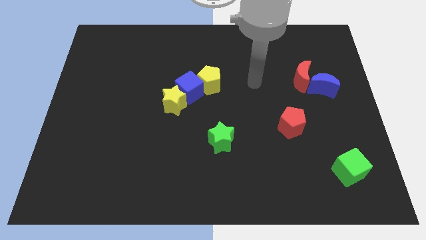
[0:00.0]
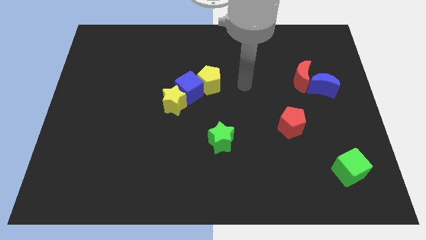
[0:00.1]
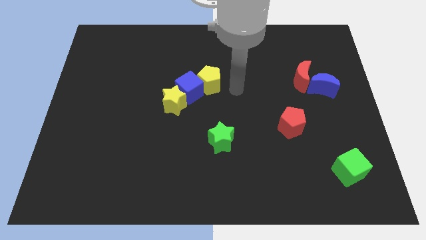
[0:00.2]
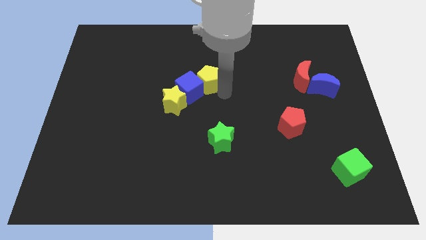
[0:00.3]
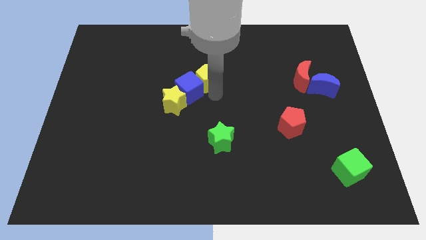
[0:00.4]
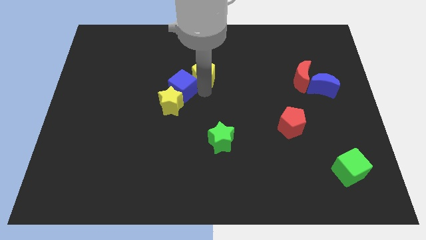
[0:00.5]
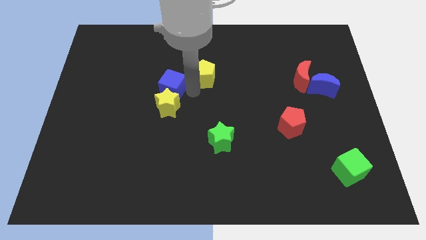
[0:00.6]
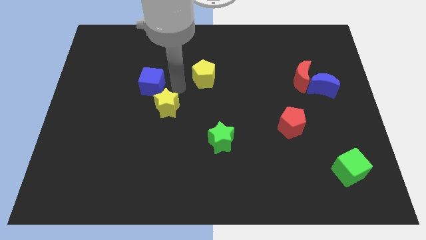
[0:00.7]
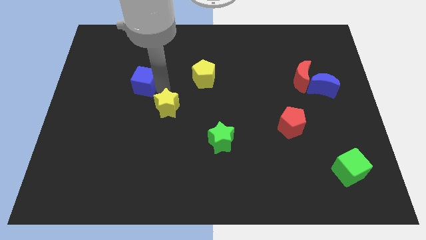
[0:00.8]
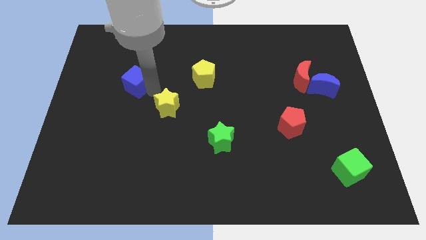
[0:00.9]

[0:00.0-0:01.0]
pull the yellow star apart from the blue cube

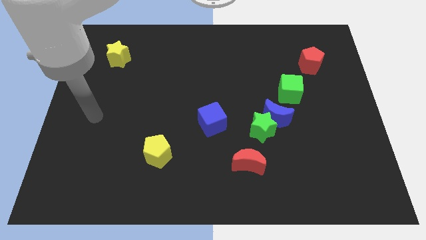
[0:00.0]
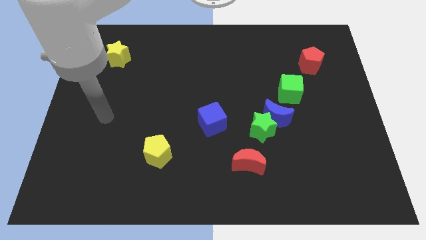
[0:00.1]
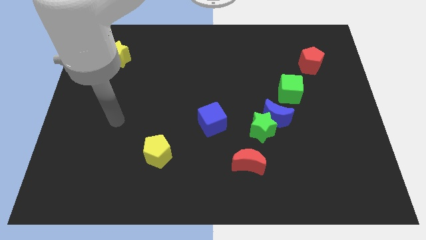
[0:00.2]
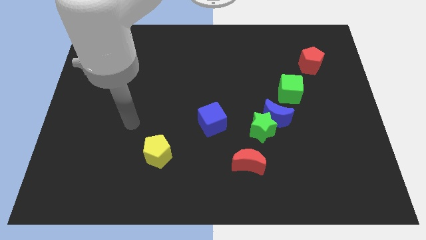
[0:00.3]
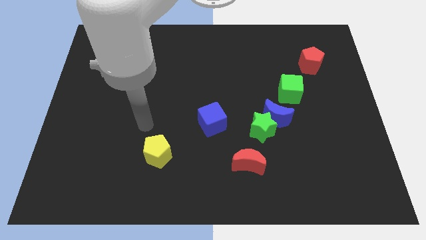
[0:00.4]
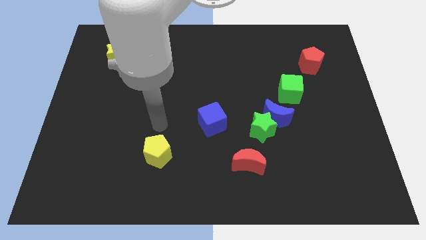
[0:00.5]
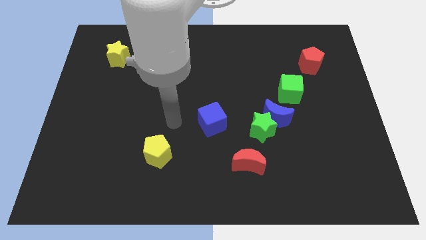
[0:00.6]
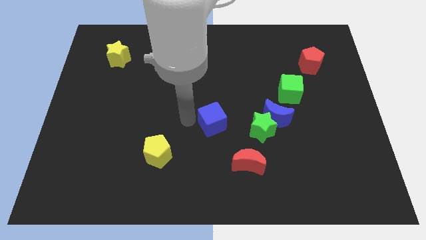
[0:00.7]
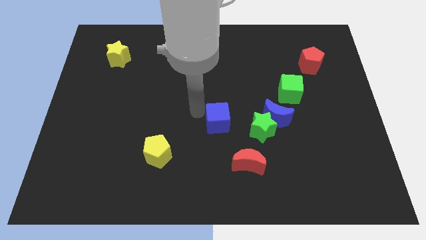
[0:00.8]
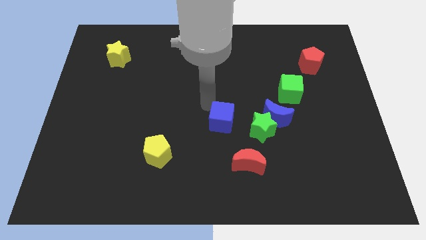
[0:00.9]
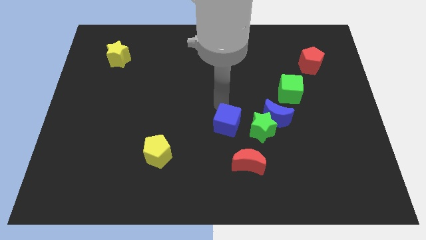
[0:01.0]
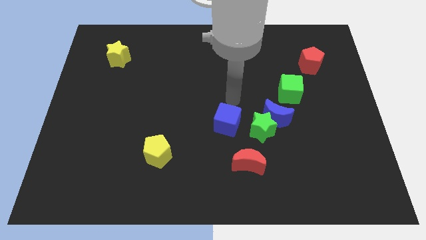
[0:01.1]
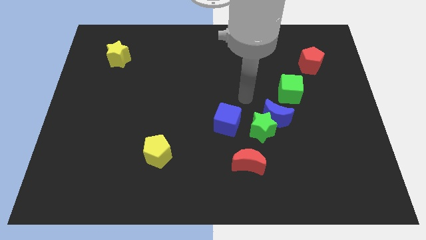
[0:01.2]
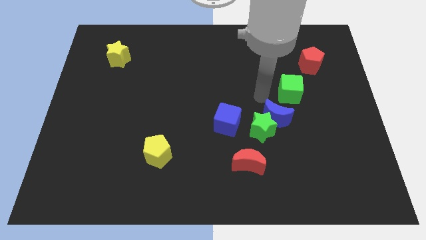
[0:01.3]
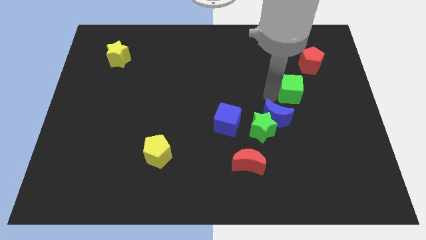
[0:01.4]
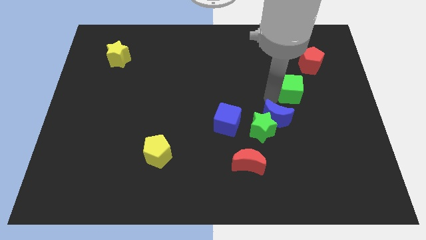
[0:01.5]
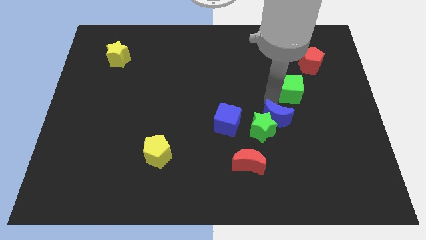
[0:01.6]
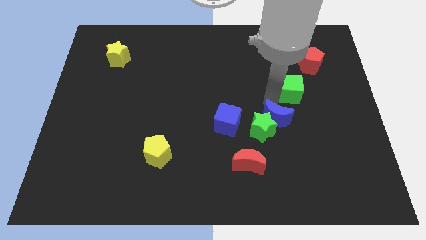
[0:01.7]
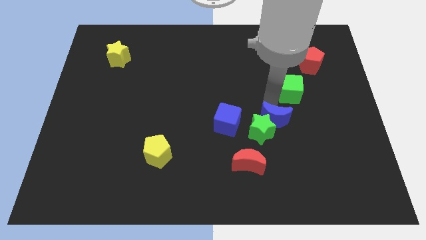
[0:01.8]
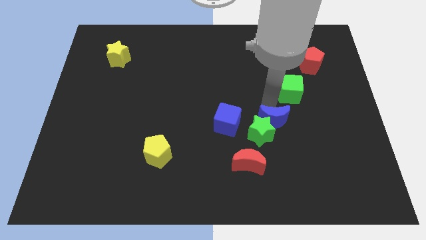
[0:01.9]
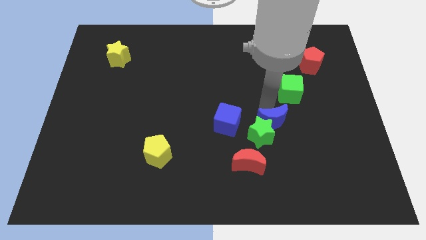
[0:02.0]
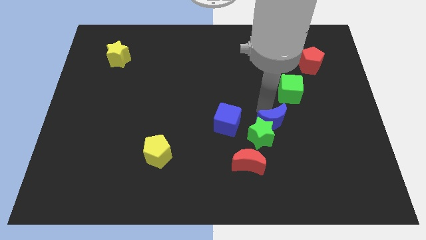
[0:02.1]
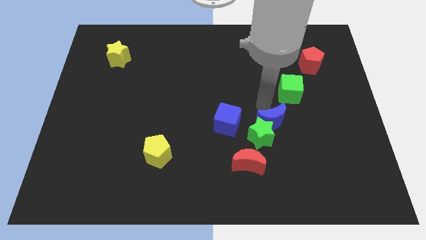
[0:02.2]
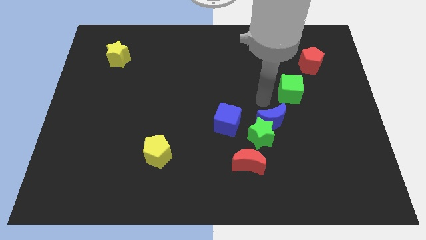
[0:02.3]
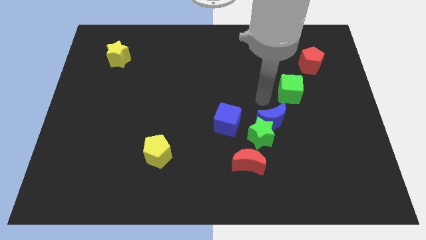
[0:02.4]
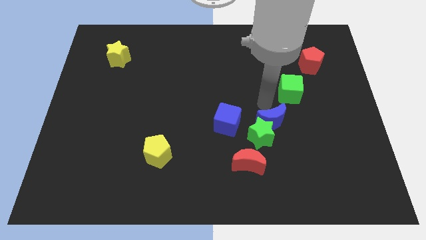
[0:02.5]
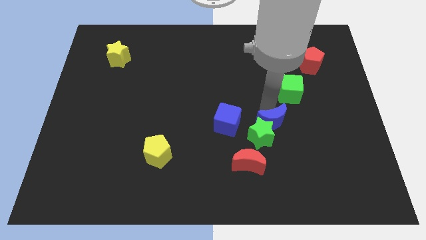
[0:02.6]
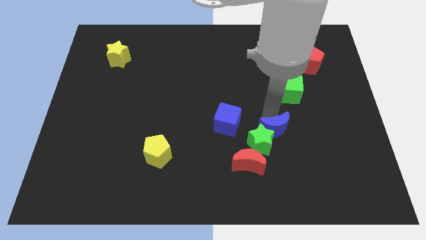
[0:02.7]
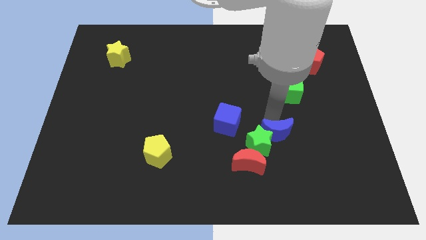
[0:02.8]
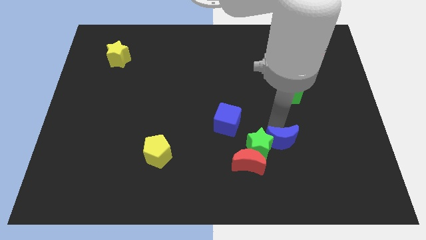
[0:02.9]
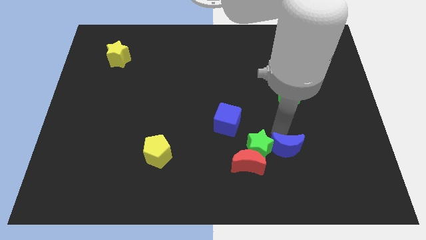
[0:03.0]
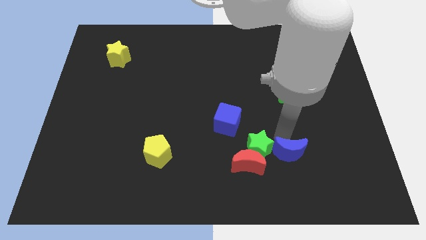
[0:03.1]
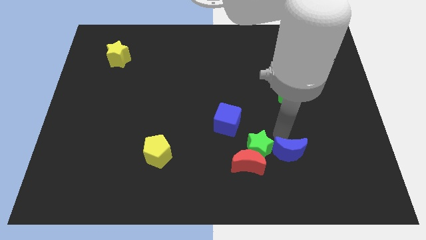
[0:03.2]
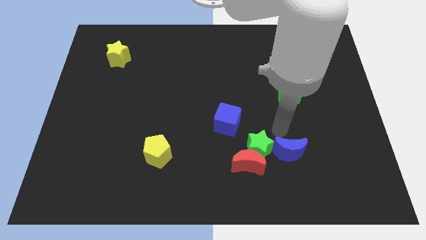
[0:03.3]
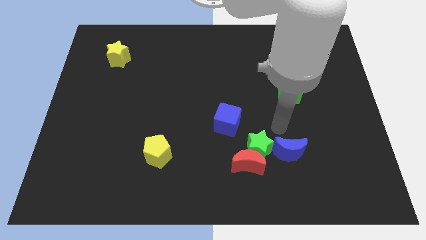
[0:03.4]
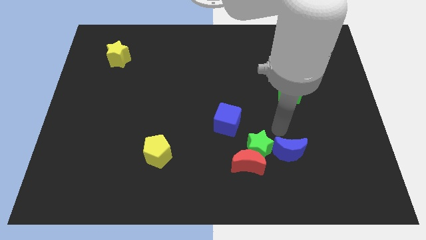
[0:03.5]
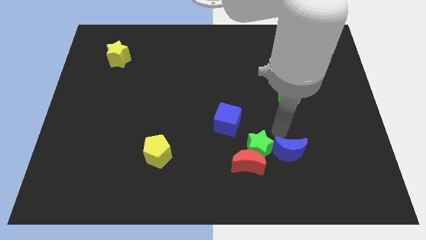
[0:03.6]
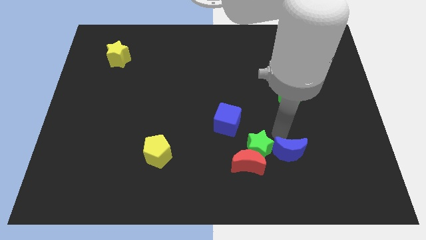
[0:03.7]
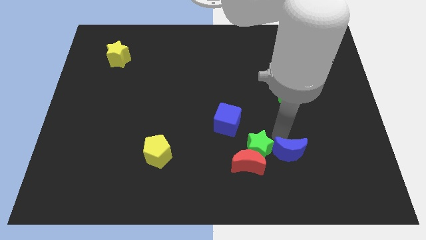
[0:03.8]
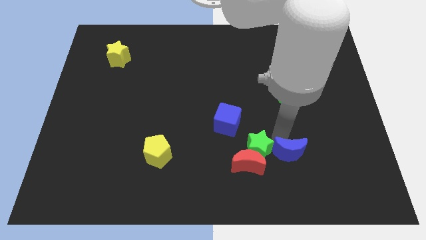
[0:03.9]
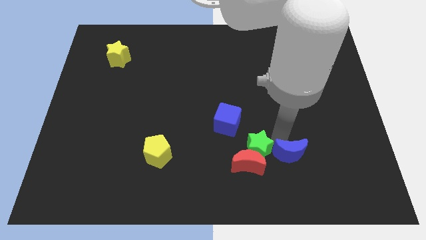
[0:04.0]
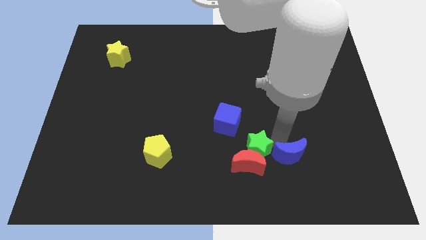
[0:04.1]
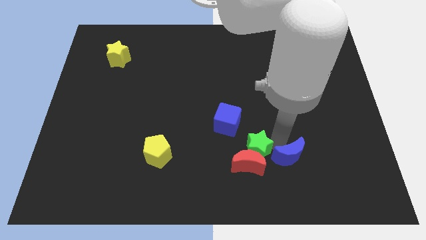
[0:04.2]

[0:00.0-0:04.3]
separate the blue moon from the green star and green cube

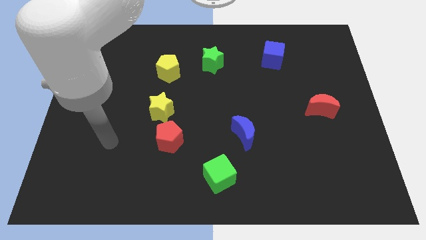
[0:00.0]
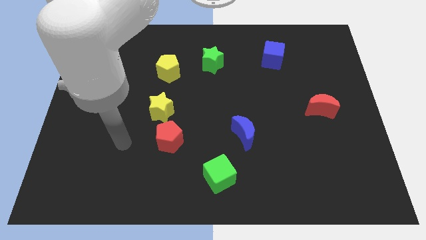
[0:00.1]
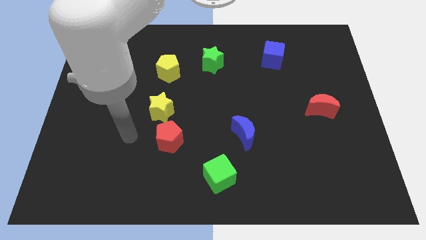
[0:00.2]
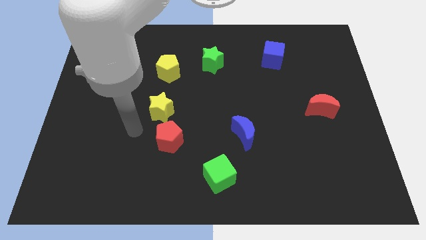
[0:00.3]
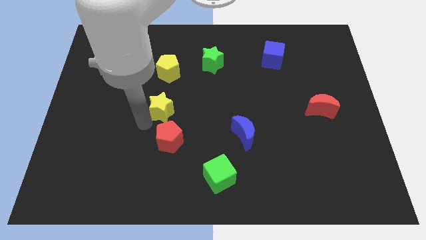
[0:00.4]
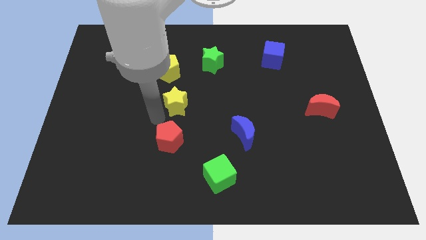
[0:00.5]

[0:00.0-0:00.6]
move the red pentagon away from the yellow star

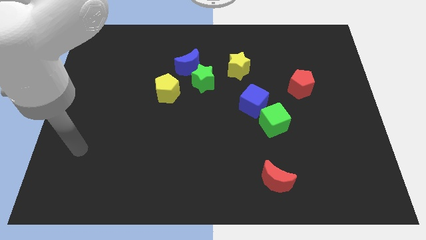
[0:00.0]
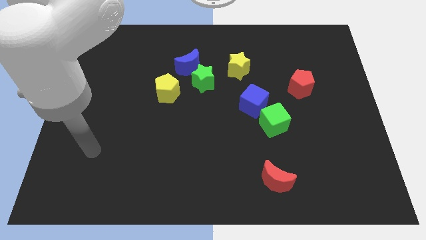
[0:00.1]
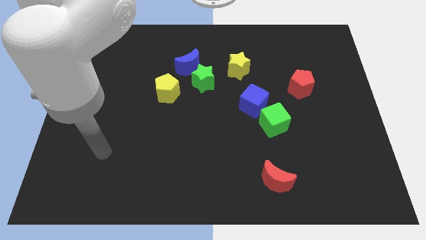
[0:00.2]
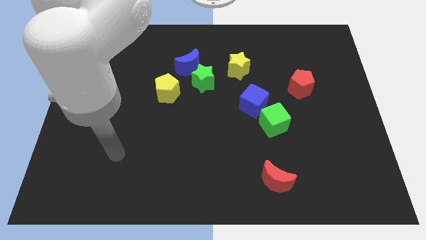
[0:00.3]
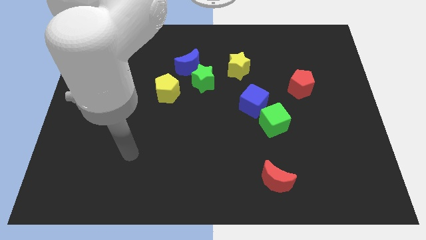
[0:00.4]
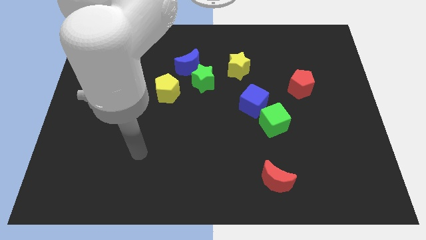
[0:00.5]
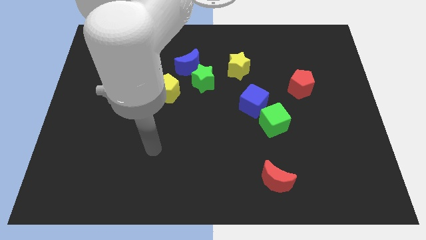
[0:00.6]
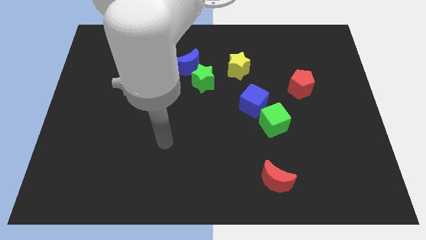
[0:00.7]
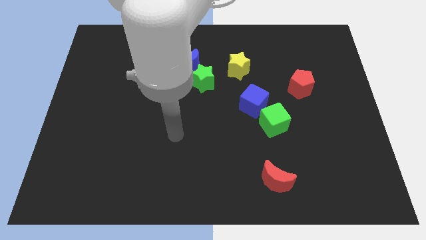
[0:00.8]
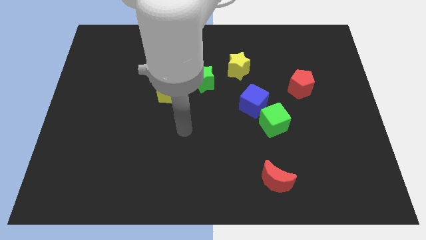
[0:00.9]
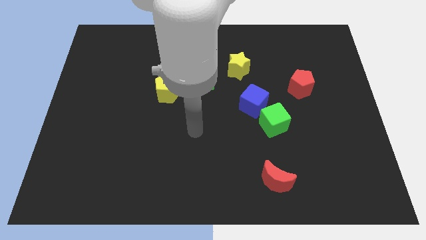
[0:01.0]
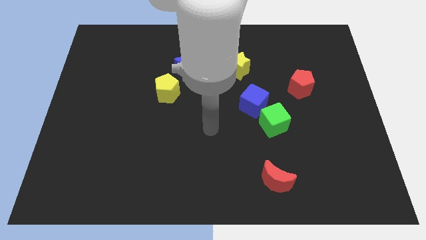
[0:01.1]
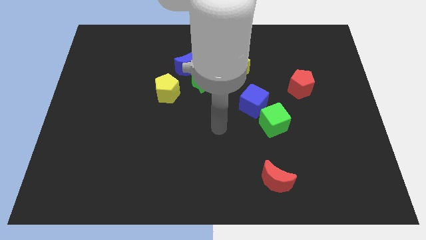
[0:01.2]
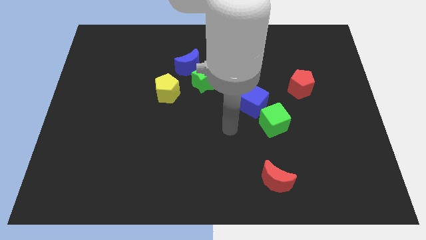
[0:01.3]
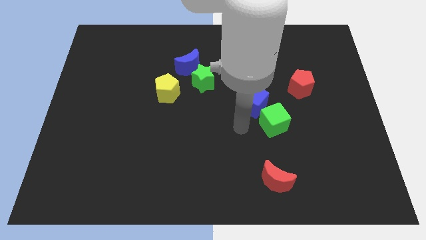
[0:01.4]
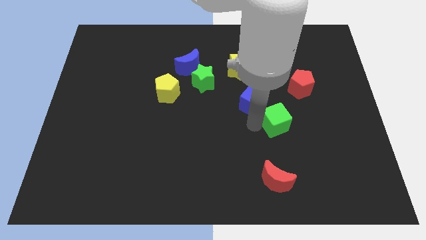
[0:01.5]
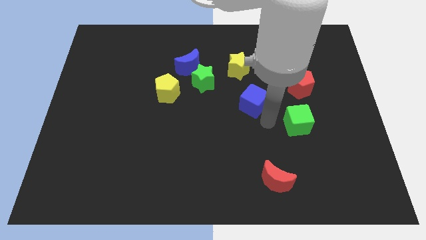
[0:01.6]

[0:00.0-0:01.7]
pull the blue cube apart from the green cube

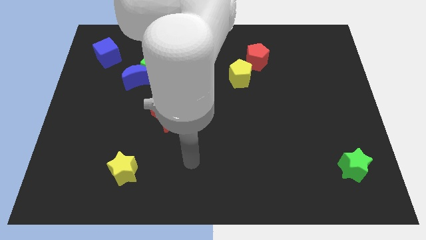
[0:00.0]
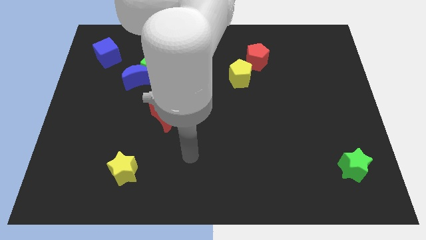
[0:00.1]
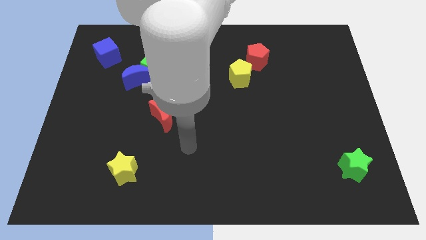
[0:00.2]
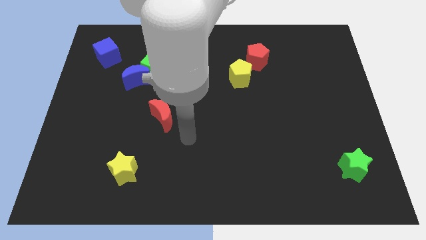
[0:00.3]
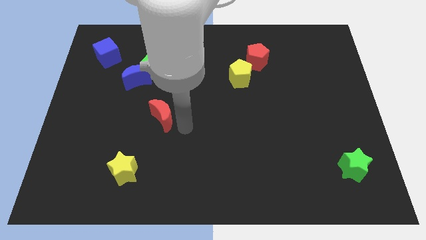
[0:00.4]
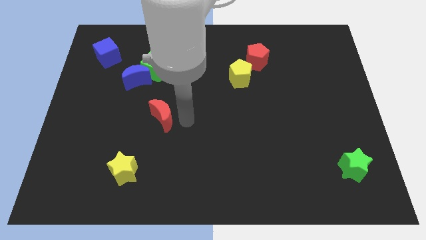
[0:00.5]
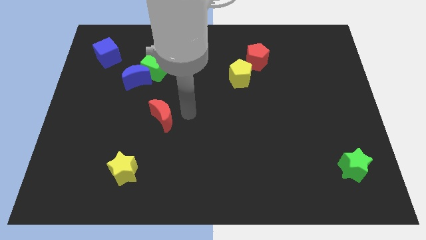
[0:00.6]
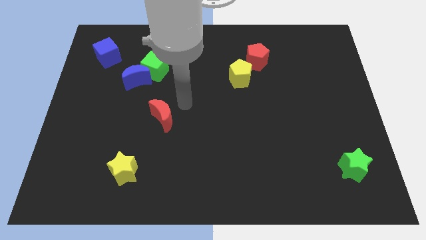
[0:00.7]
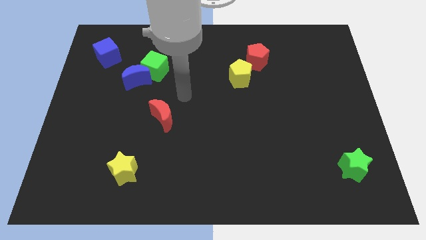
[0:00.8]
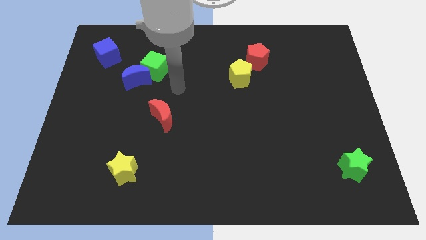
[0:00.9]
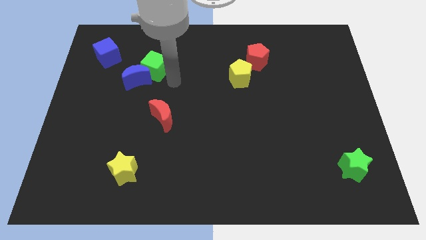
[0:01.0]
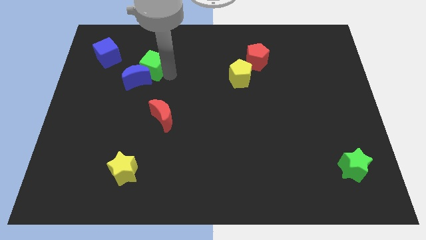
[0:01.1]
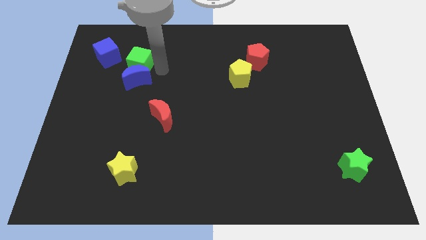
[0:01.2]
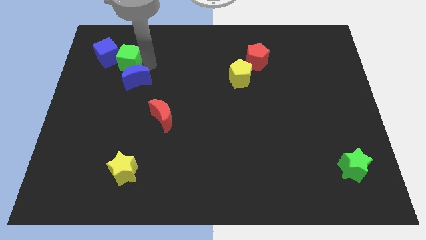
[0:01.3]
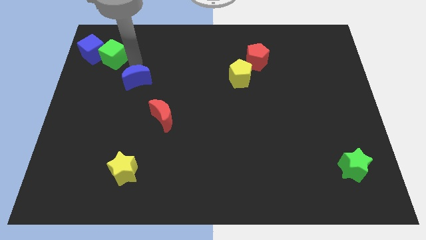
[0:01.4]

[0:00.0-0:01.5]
pull the blue moon apart from the green cube
